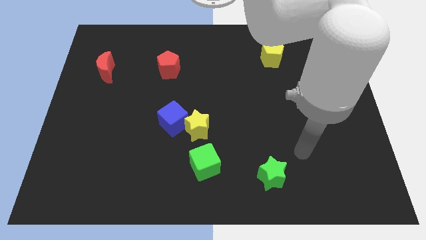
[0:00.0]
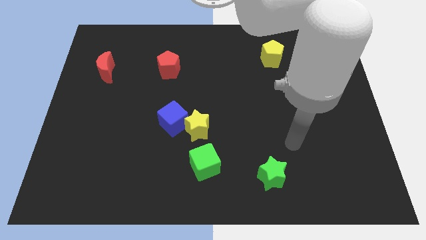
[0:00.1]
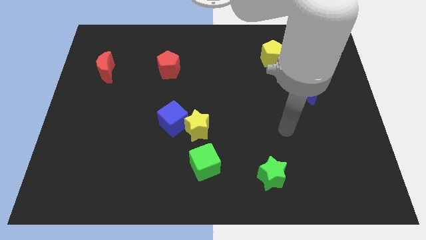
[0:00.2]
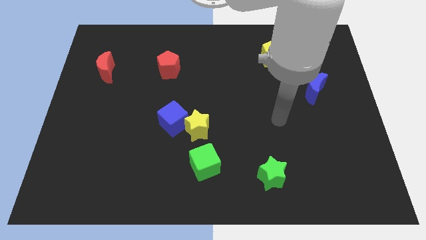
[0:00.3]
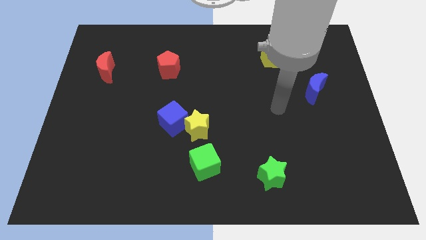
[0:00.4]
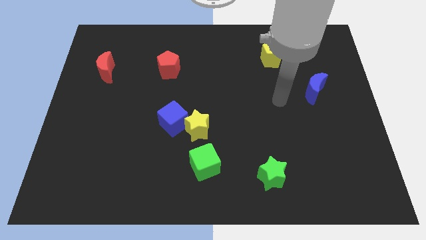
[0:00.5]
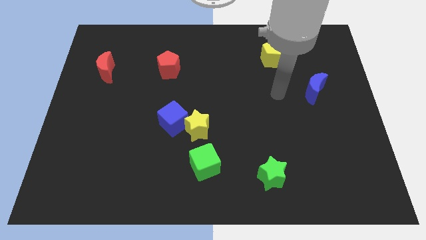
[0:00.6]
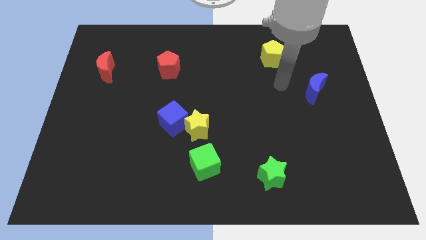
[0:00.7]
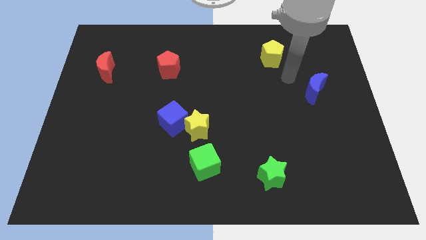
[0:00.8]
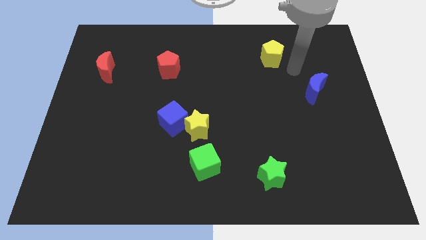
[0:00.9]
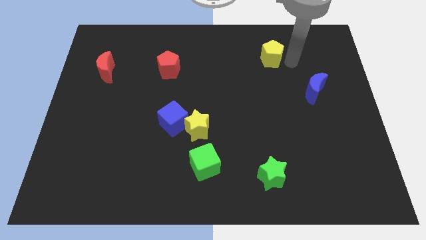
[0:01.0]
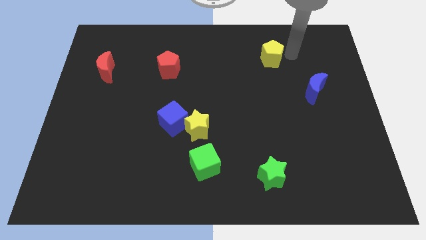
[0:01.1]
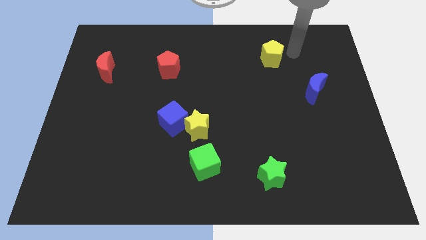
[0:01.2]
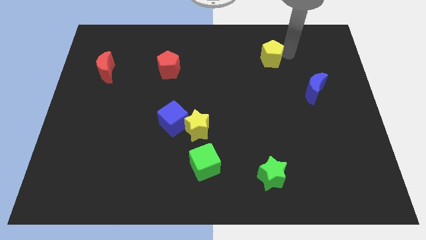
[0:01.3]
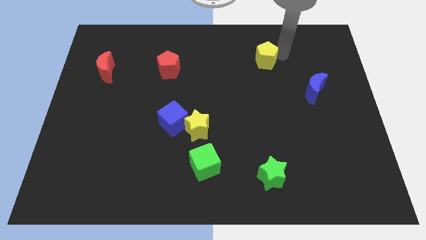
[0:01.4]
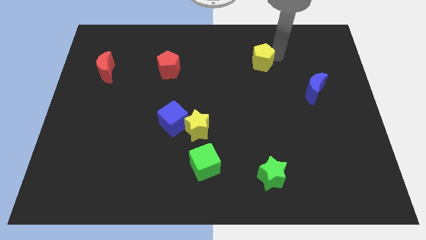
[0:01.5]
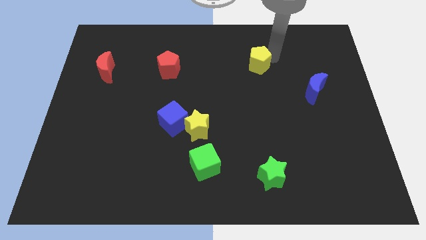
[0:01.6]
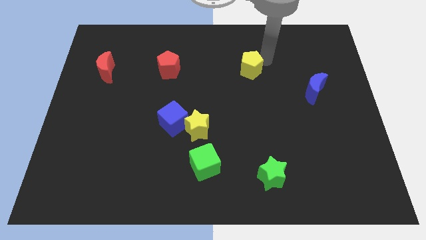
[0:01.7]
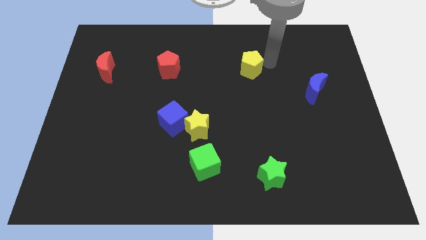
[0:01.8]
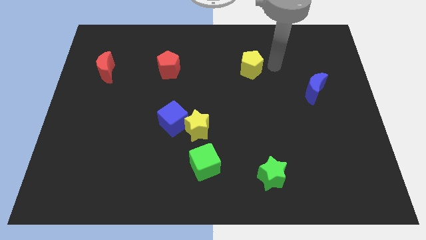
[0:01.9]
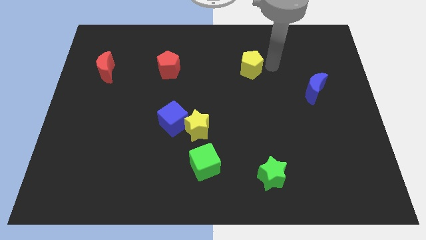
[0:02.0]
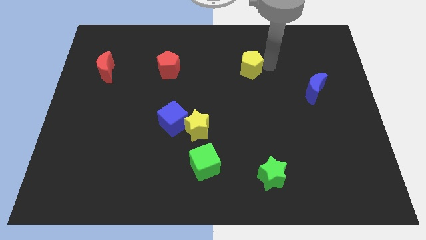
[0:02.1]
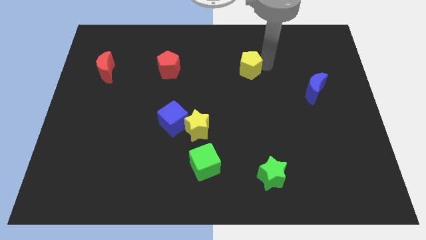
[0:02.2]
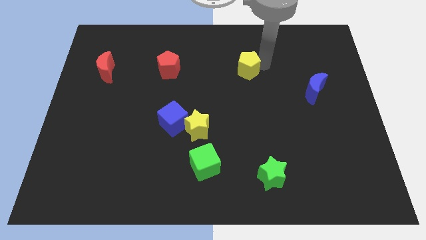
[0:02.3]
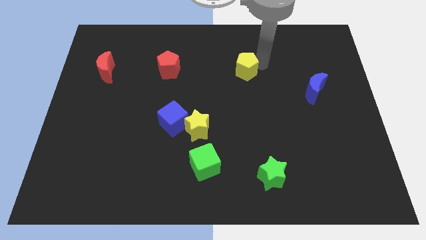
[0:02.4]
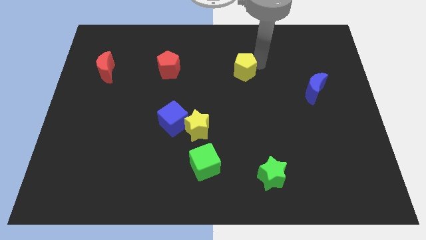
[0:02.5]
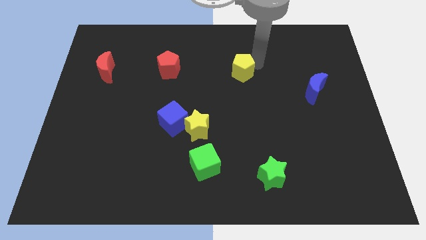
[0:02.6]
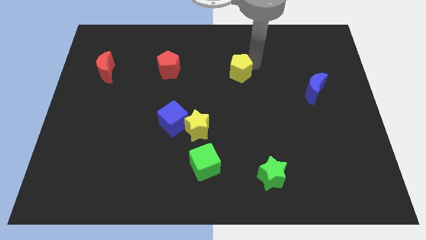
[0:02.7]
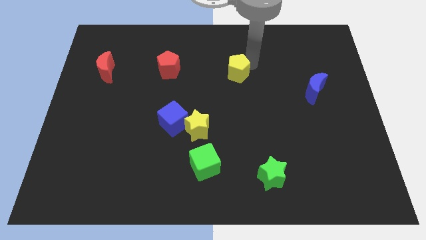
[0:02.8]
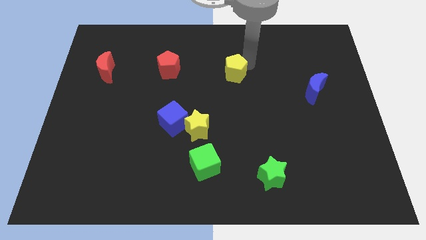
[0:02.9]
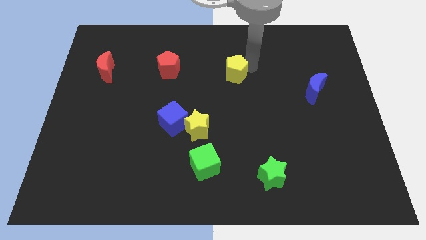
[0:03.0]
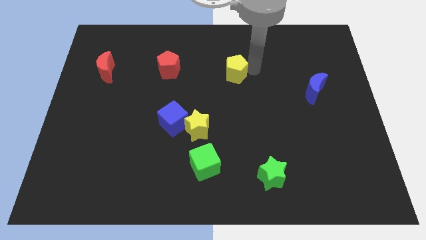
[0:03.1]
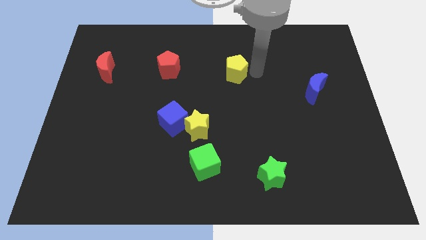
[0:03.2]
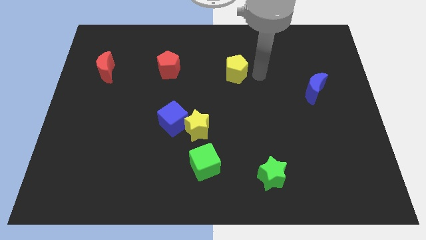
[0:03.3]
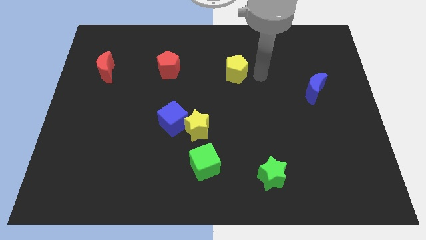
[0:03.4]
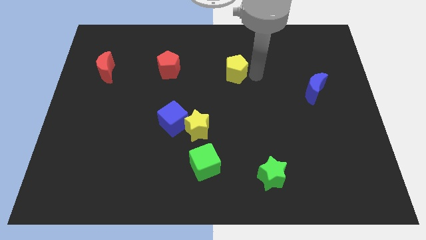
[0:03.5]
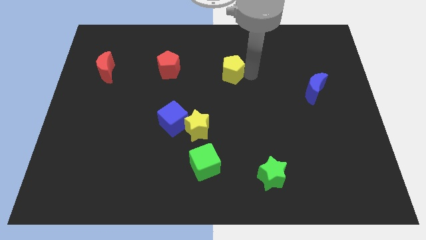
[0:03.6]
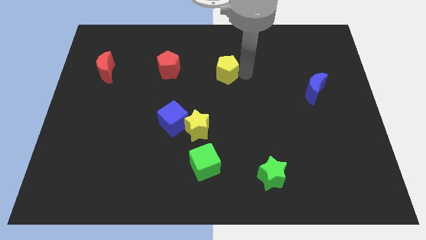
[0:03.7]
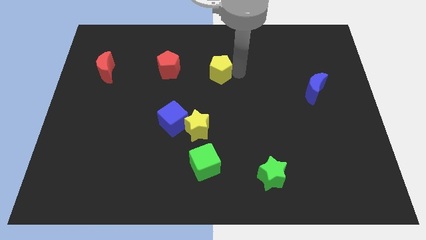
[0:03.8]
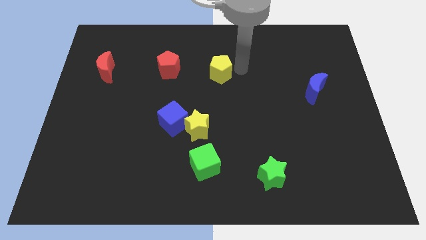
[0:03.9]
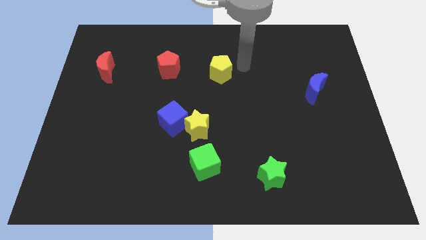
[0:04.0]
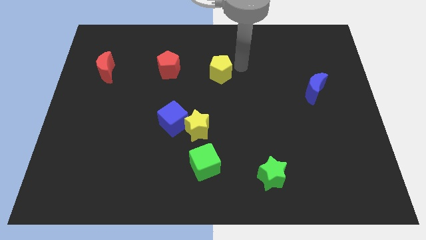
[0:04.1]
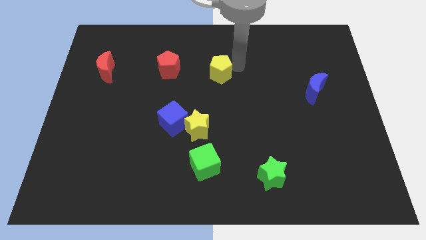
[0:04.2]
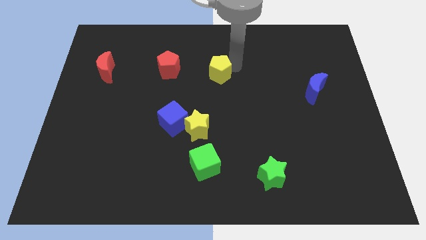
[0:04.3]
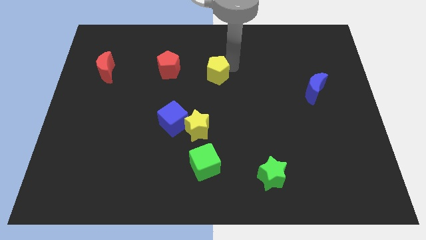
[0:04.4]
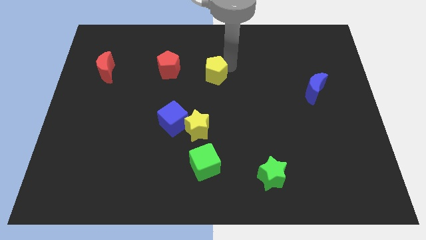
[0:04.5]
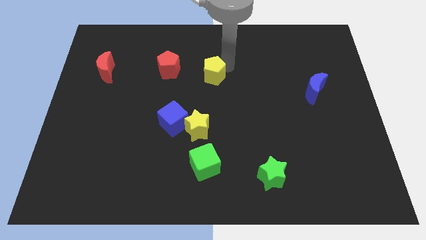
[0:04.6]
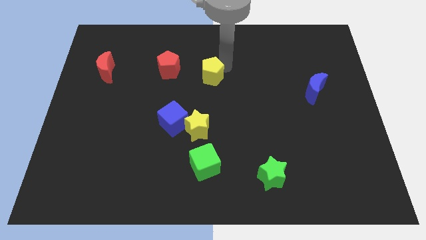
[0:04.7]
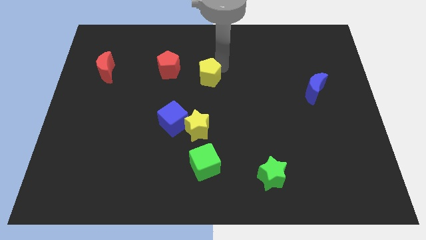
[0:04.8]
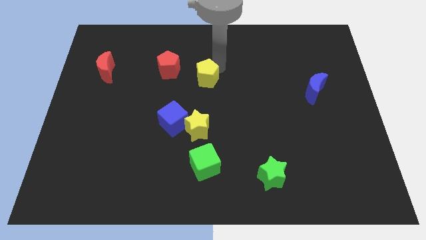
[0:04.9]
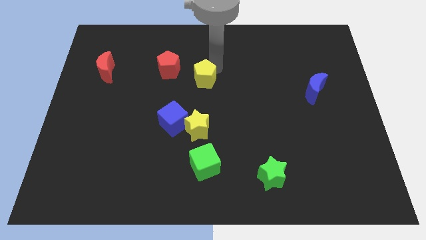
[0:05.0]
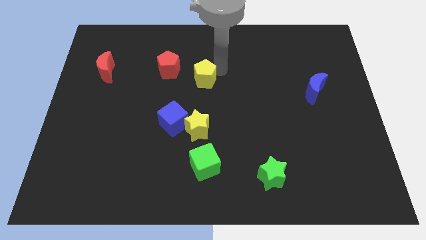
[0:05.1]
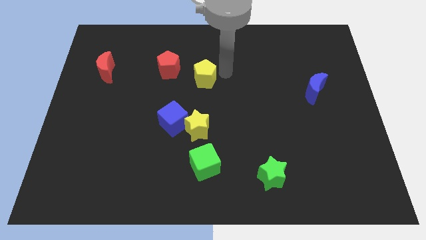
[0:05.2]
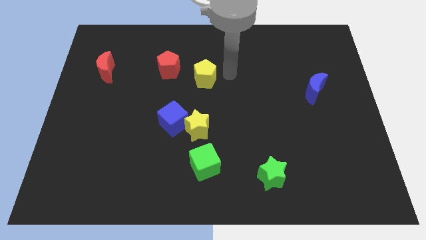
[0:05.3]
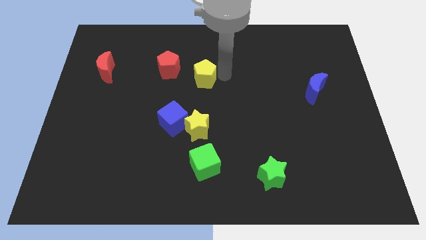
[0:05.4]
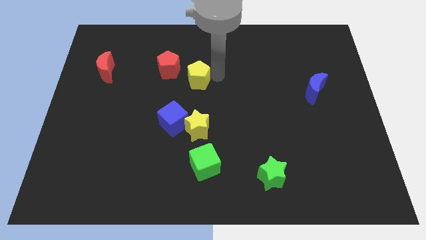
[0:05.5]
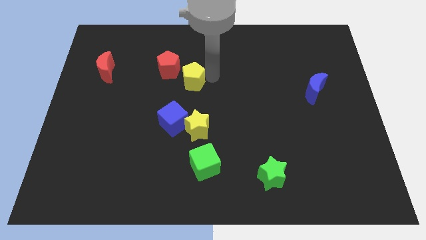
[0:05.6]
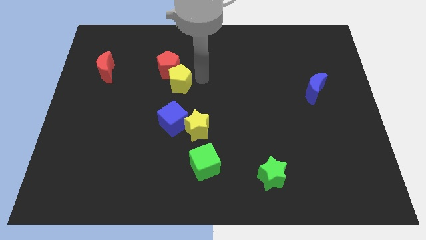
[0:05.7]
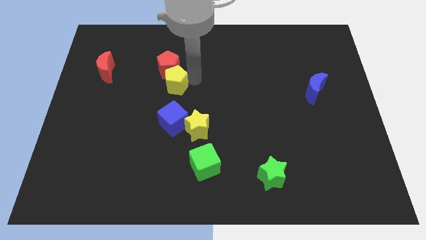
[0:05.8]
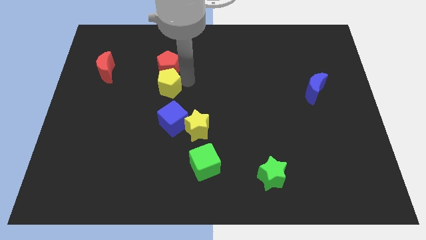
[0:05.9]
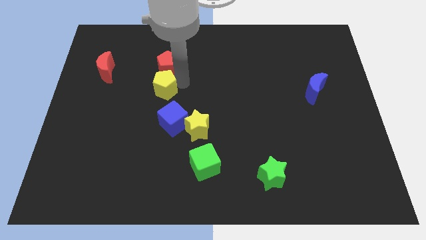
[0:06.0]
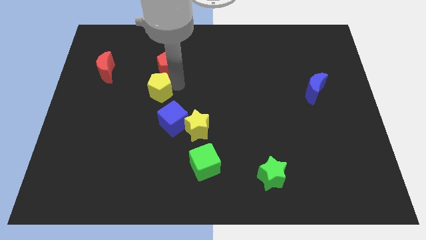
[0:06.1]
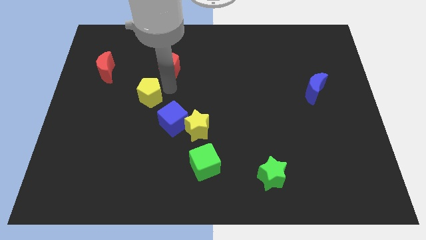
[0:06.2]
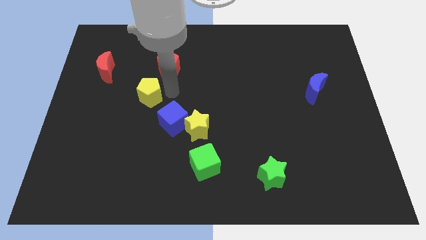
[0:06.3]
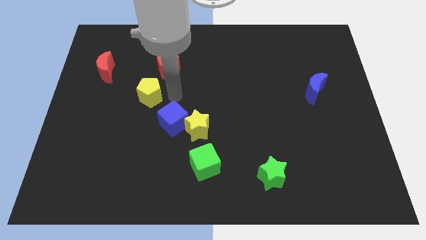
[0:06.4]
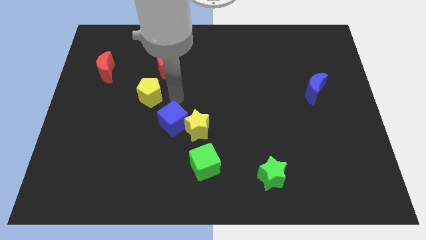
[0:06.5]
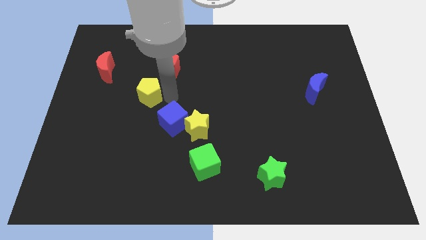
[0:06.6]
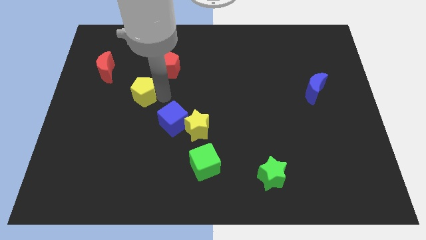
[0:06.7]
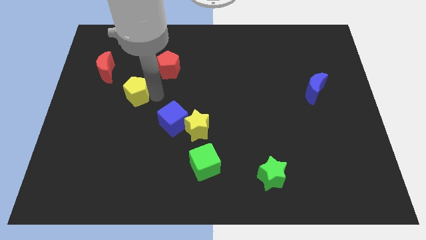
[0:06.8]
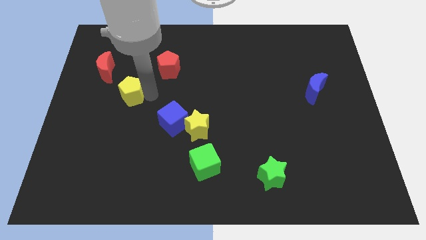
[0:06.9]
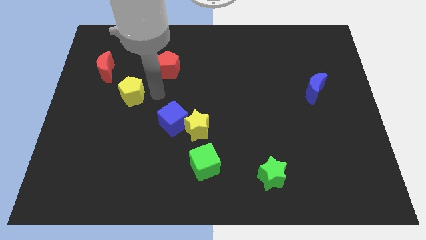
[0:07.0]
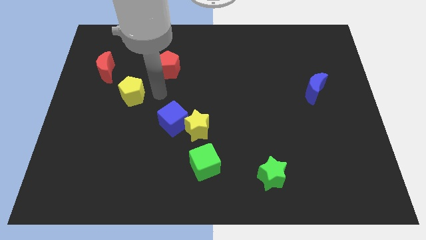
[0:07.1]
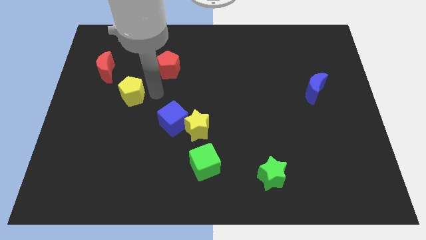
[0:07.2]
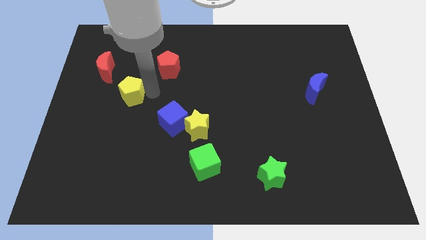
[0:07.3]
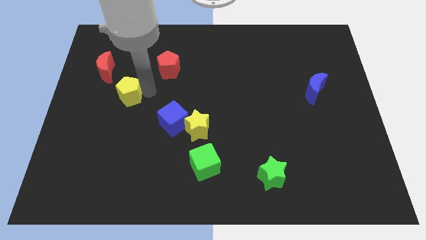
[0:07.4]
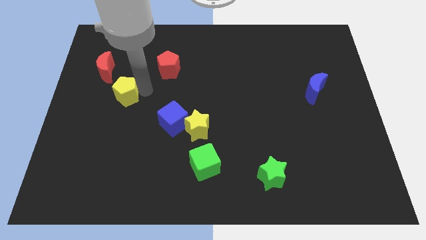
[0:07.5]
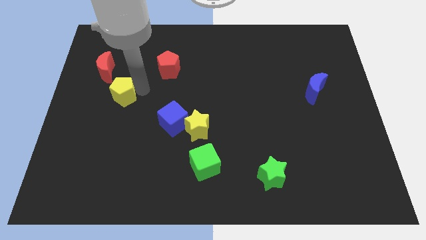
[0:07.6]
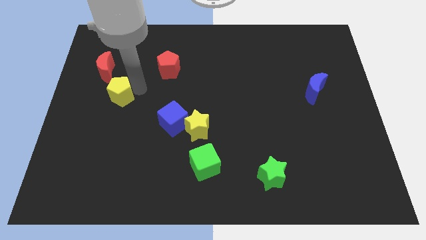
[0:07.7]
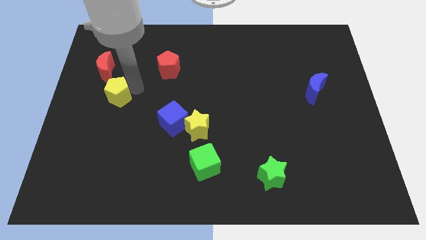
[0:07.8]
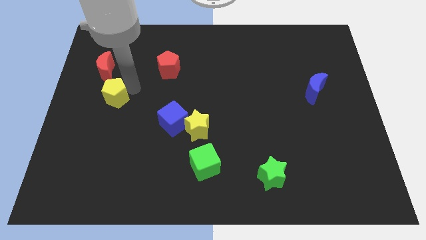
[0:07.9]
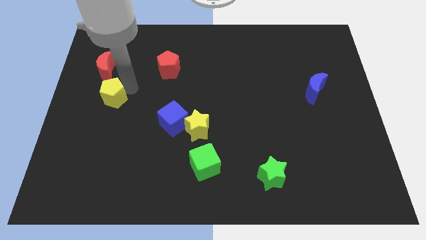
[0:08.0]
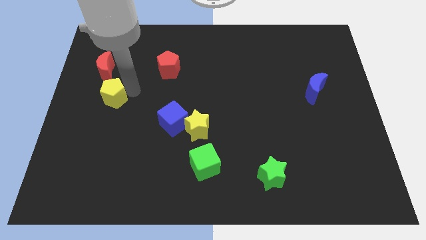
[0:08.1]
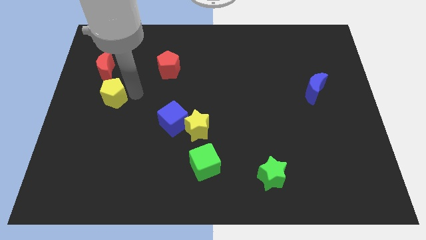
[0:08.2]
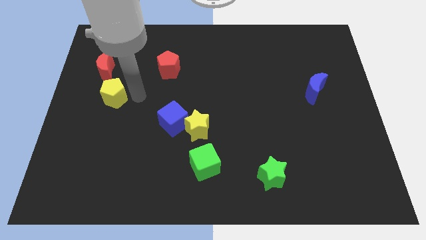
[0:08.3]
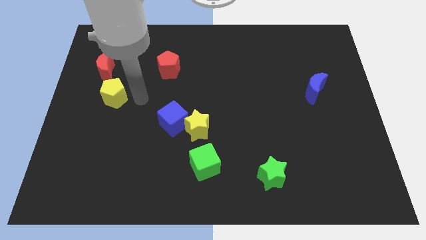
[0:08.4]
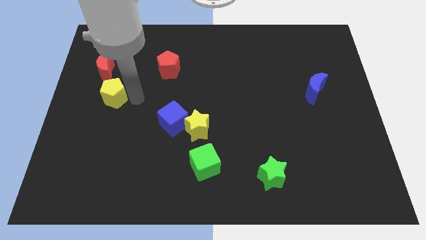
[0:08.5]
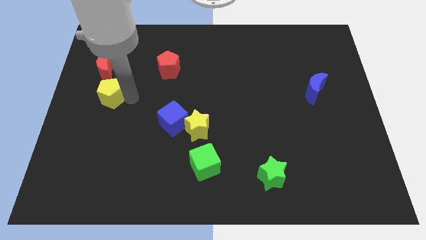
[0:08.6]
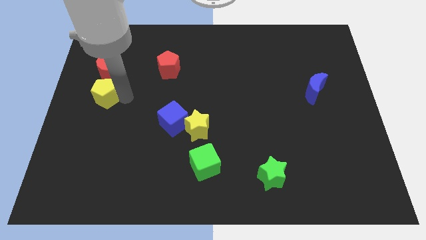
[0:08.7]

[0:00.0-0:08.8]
move the yellow pentagon to the center left
